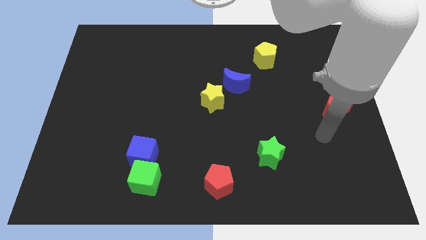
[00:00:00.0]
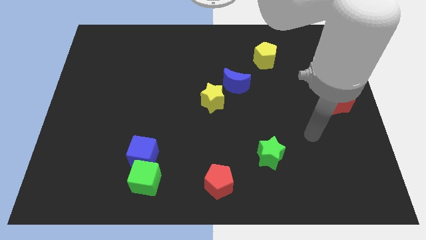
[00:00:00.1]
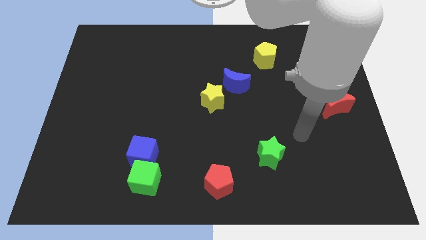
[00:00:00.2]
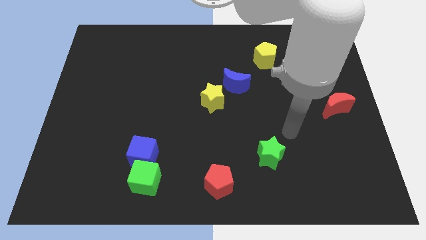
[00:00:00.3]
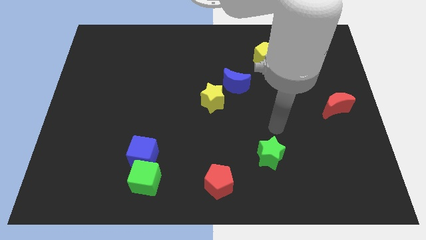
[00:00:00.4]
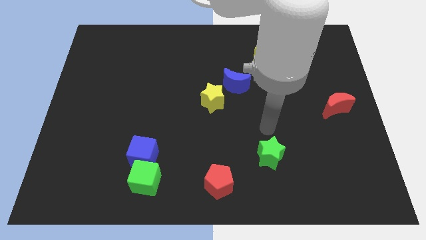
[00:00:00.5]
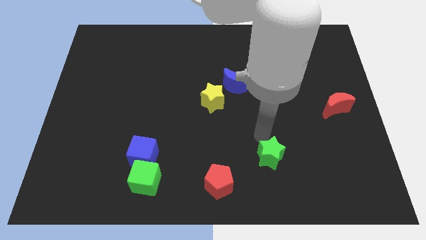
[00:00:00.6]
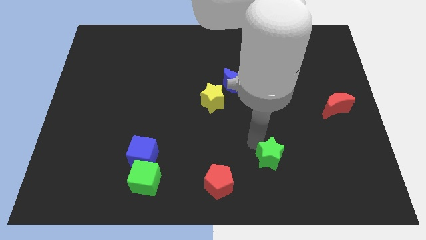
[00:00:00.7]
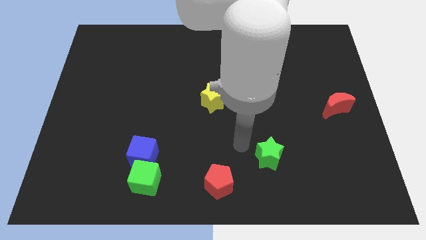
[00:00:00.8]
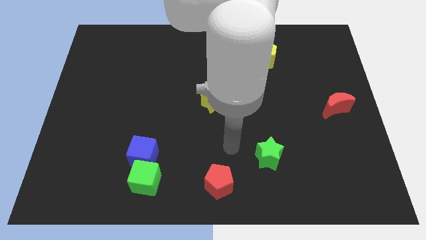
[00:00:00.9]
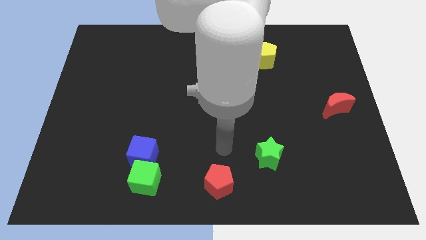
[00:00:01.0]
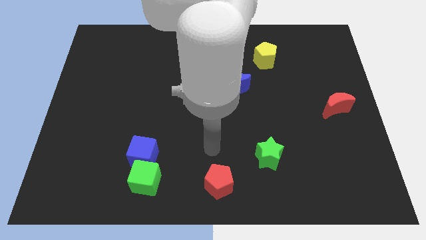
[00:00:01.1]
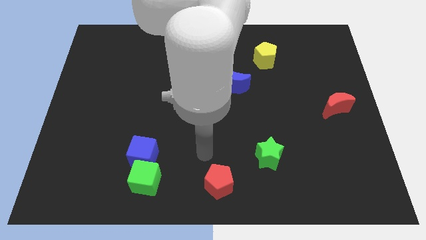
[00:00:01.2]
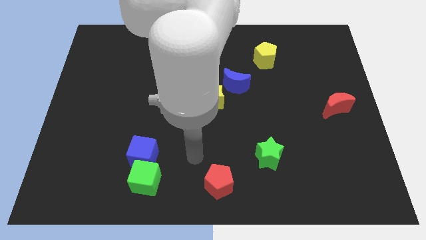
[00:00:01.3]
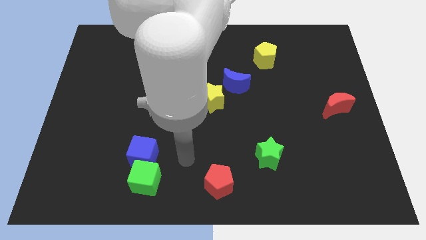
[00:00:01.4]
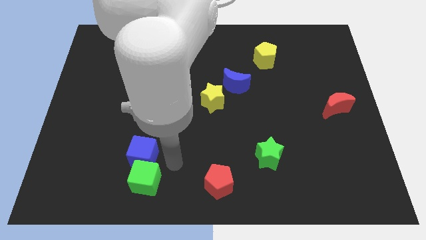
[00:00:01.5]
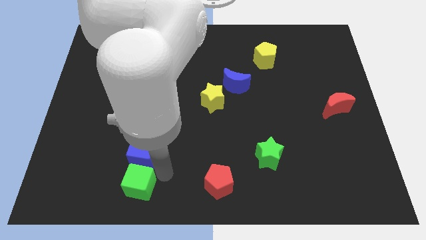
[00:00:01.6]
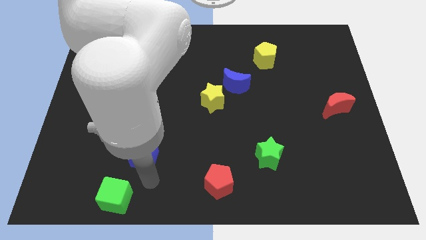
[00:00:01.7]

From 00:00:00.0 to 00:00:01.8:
separate the blue cube from the green cube

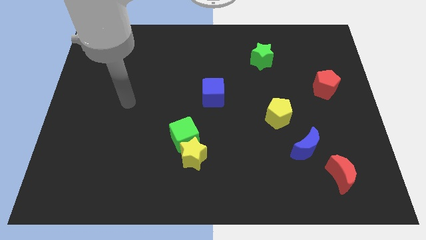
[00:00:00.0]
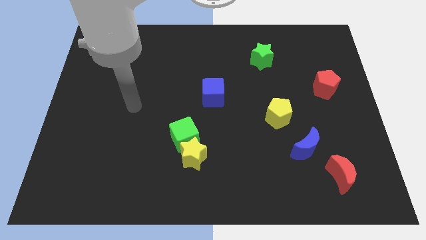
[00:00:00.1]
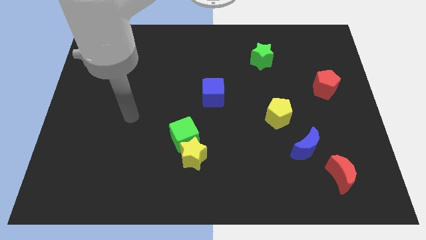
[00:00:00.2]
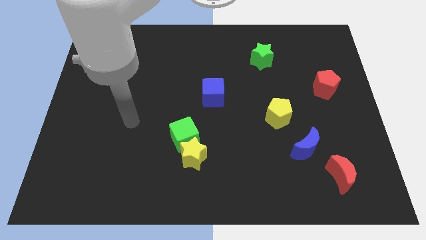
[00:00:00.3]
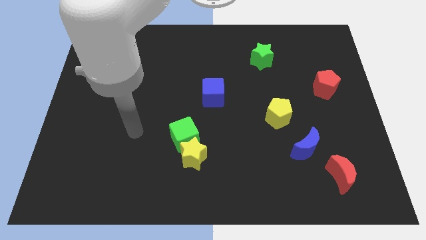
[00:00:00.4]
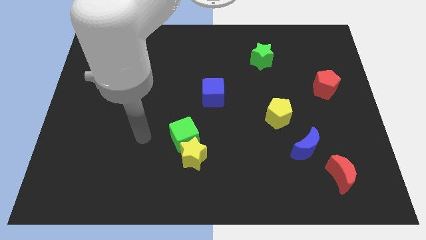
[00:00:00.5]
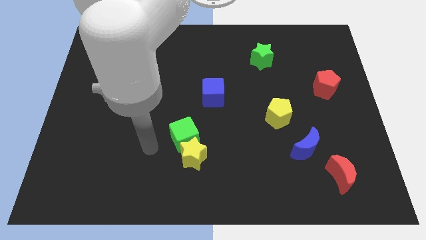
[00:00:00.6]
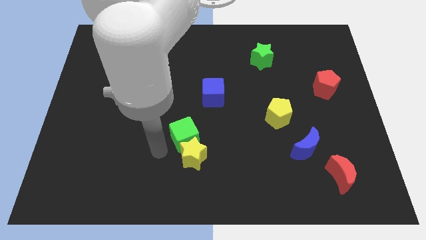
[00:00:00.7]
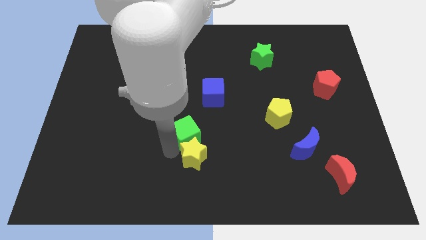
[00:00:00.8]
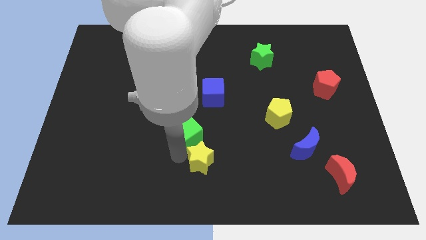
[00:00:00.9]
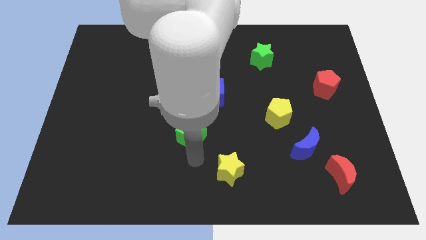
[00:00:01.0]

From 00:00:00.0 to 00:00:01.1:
pull the green cube apart from the yellow star

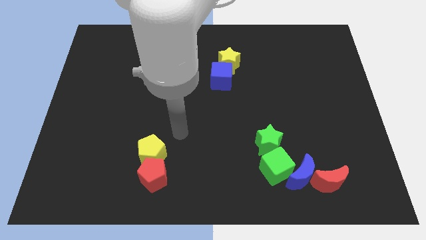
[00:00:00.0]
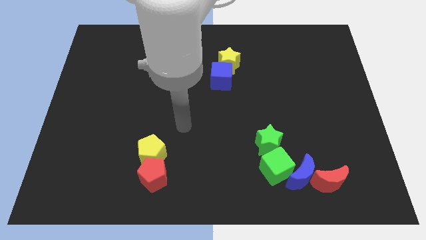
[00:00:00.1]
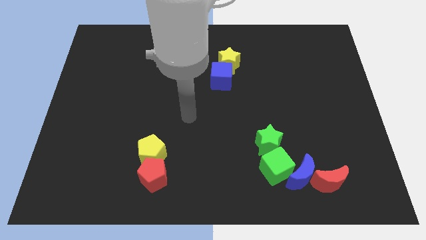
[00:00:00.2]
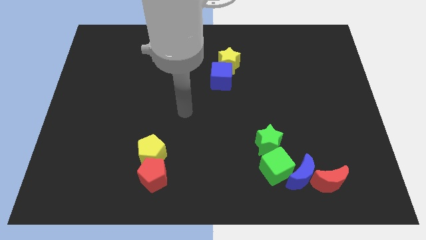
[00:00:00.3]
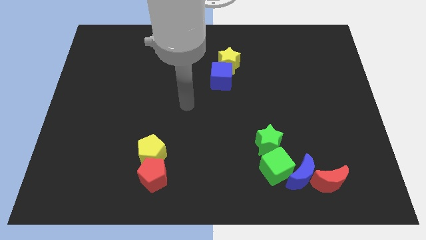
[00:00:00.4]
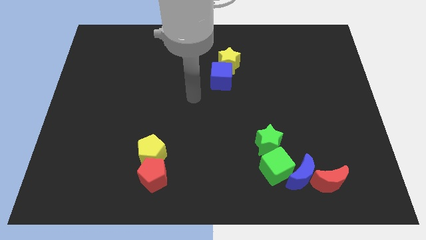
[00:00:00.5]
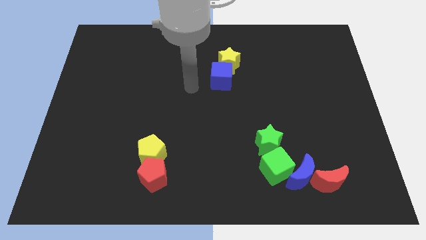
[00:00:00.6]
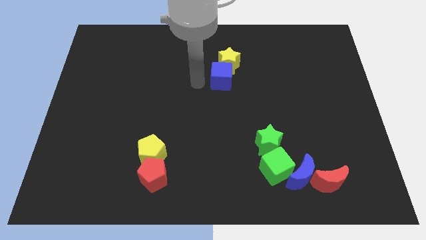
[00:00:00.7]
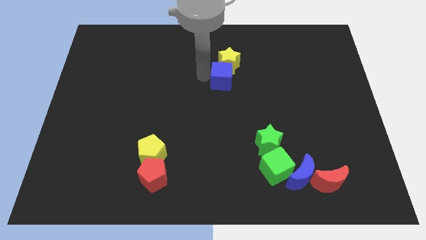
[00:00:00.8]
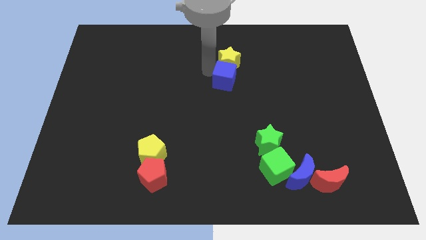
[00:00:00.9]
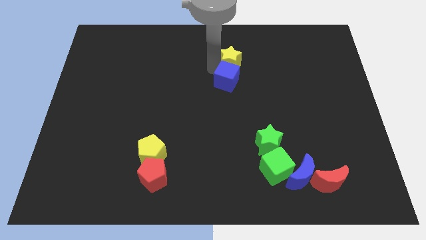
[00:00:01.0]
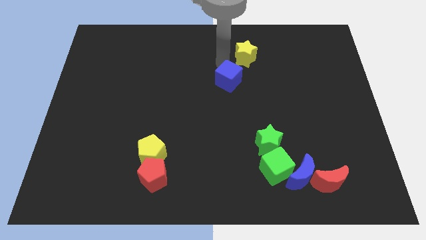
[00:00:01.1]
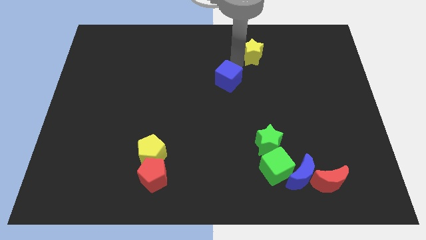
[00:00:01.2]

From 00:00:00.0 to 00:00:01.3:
pull the blue cube apart from the yellow star

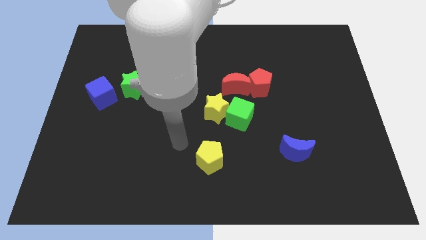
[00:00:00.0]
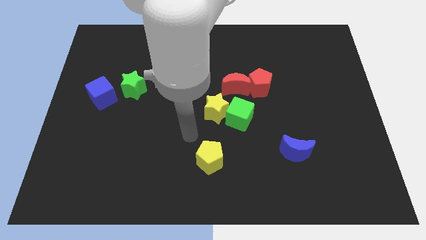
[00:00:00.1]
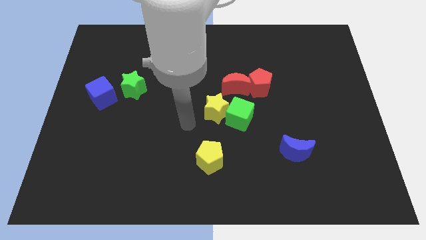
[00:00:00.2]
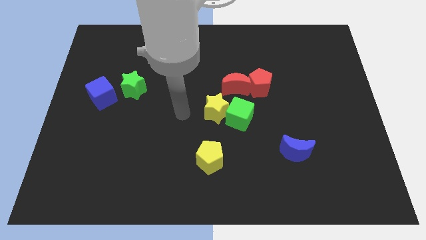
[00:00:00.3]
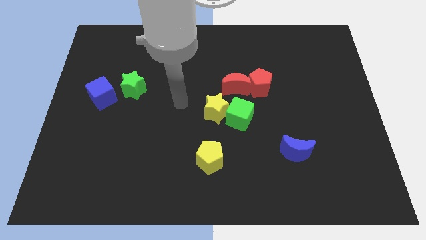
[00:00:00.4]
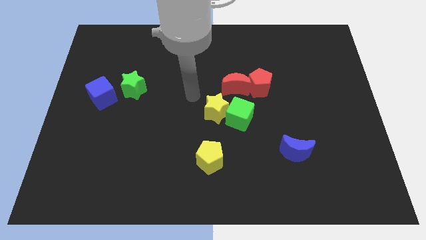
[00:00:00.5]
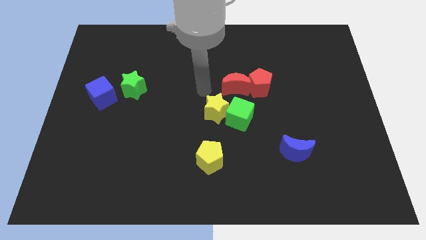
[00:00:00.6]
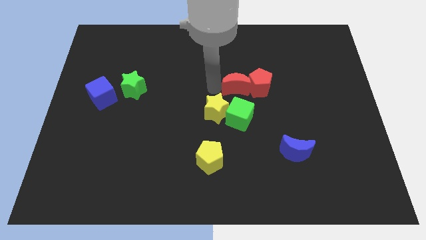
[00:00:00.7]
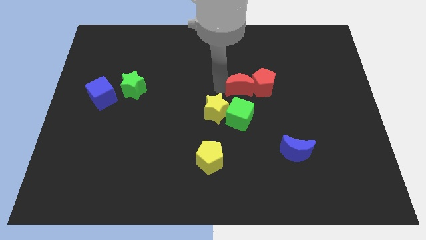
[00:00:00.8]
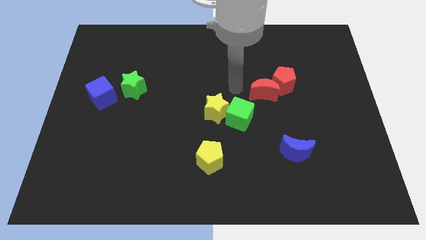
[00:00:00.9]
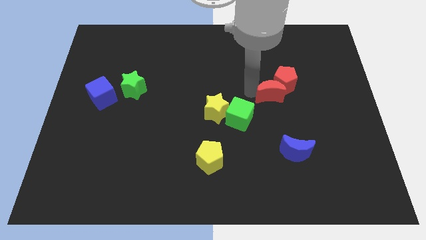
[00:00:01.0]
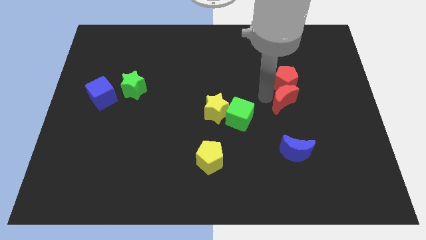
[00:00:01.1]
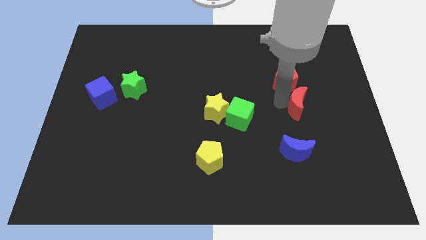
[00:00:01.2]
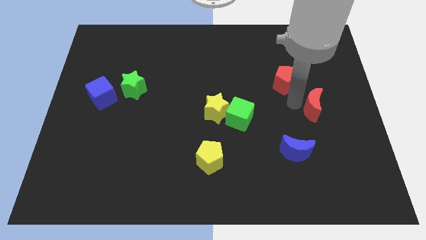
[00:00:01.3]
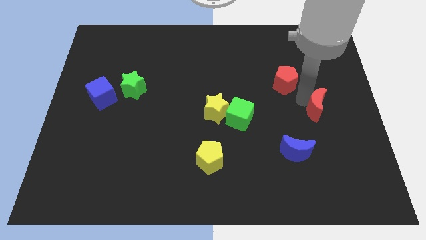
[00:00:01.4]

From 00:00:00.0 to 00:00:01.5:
move the red pentagon away from the red moon

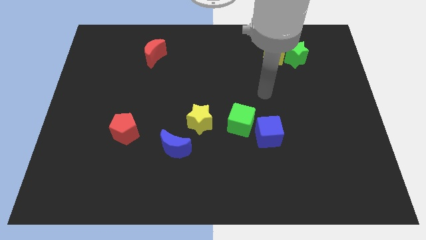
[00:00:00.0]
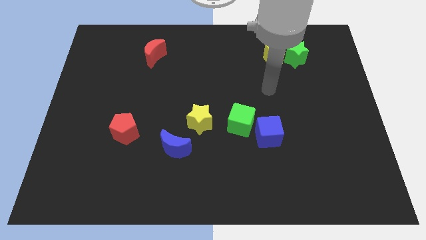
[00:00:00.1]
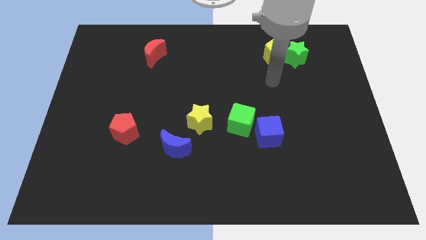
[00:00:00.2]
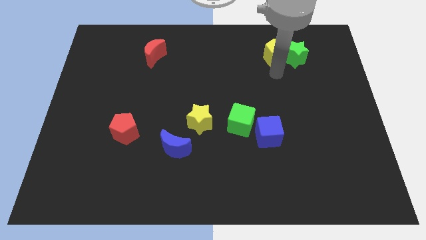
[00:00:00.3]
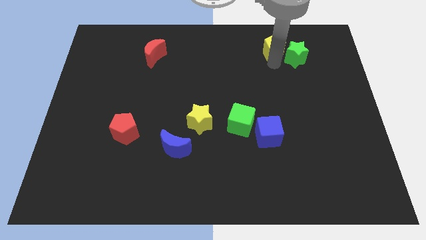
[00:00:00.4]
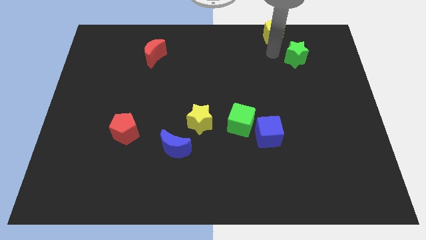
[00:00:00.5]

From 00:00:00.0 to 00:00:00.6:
pull the green star apart from the yellow pentagon

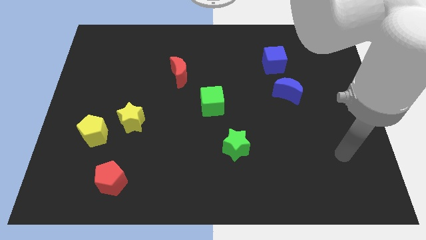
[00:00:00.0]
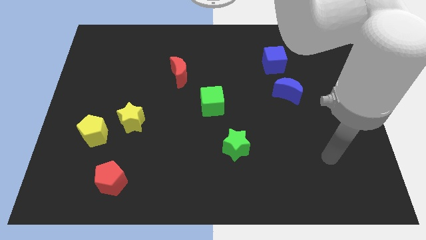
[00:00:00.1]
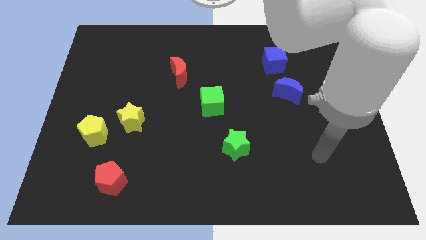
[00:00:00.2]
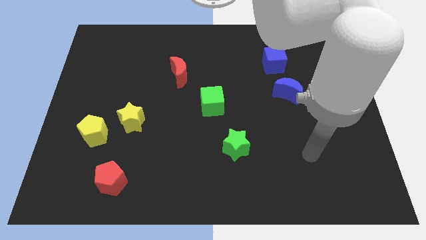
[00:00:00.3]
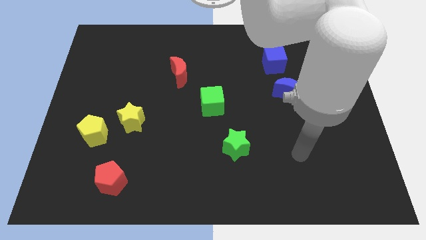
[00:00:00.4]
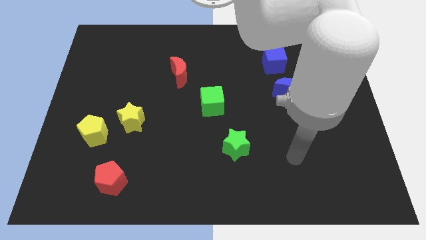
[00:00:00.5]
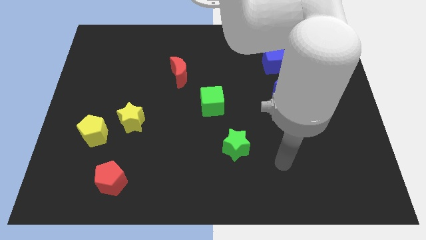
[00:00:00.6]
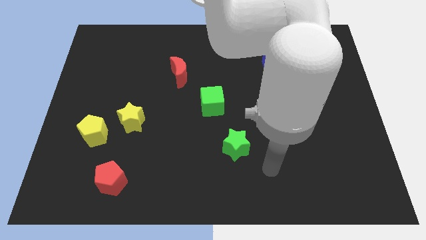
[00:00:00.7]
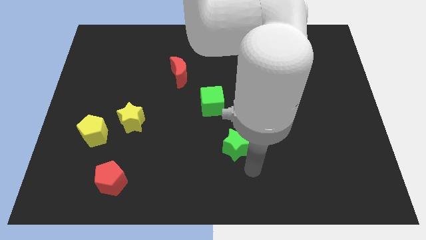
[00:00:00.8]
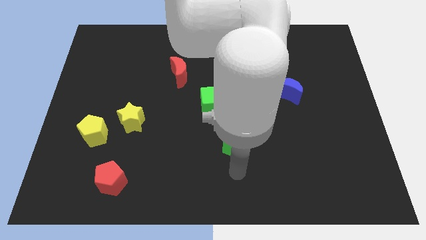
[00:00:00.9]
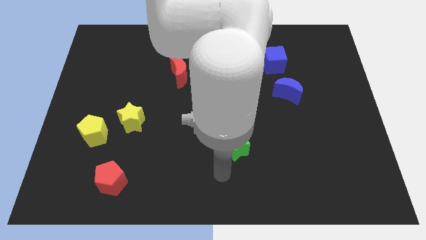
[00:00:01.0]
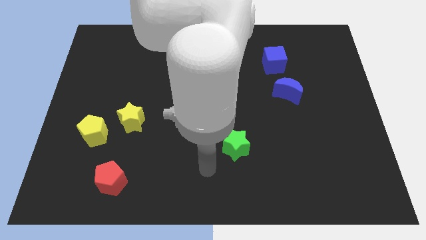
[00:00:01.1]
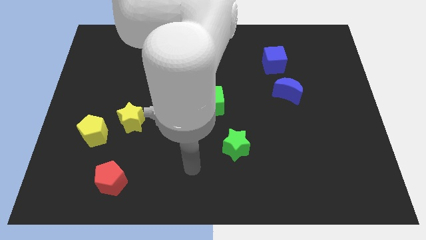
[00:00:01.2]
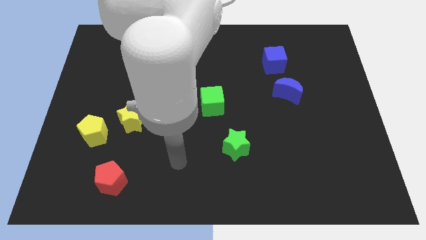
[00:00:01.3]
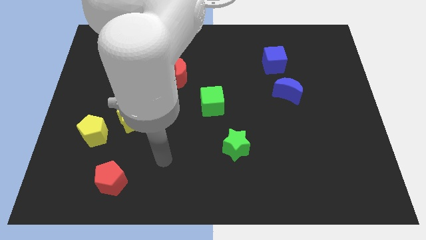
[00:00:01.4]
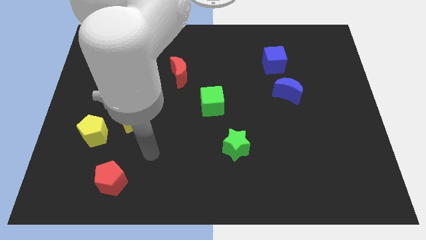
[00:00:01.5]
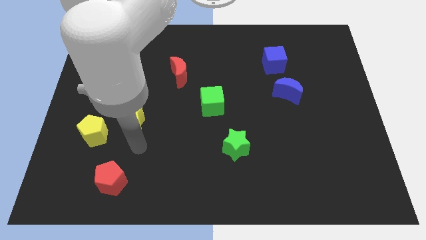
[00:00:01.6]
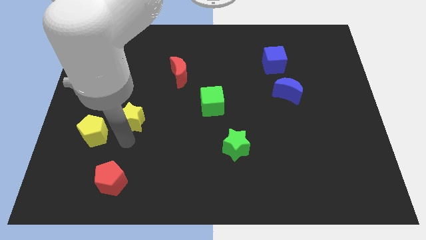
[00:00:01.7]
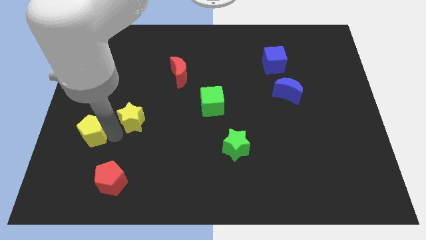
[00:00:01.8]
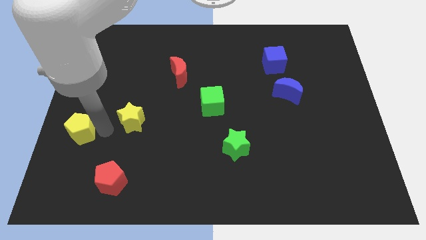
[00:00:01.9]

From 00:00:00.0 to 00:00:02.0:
pull the yellow star apart from the yellow pentagon

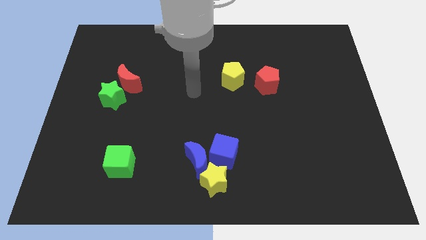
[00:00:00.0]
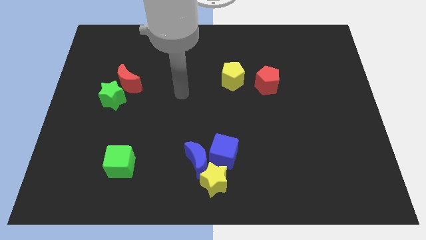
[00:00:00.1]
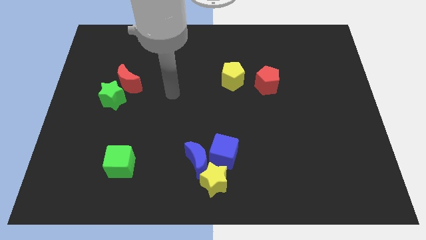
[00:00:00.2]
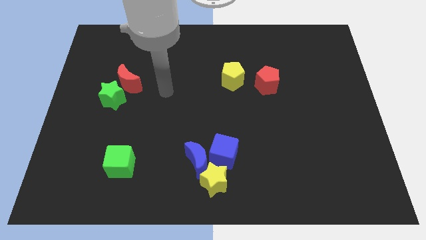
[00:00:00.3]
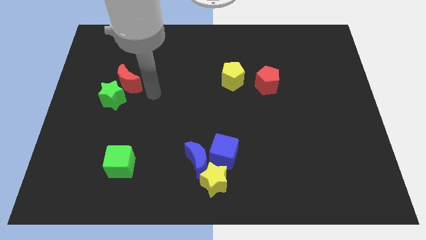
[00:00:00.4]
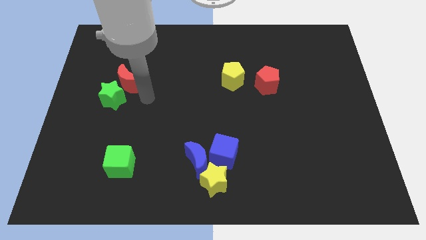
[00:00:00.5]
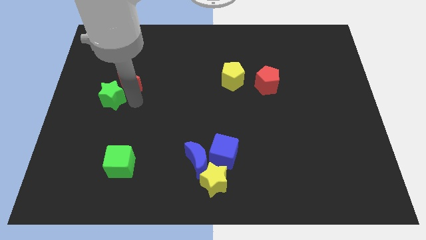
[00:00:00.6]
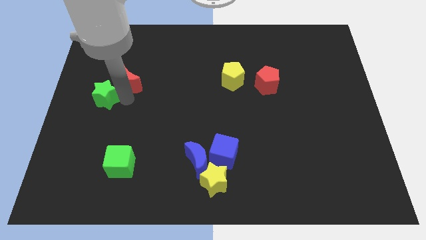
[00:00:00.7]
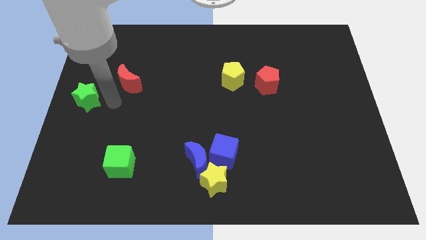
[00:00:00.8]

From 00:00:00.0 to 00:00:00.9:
move the red moon away from the green star
